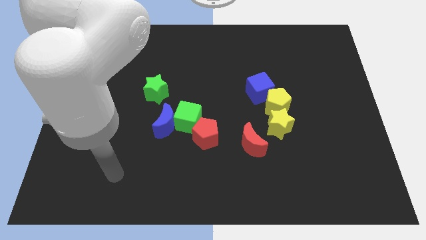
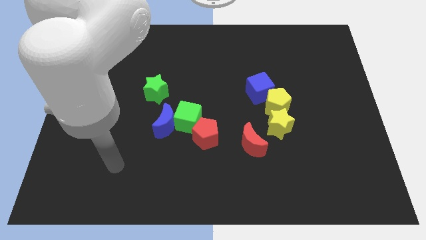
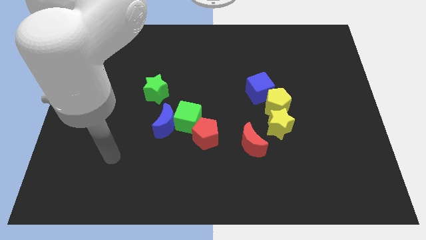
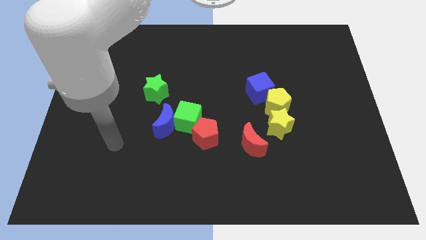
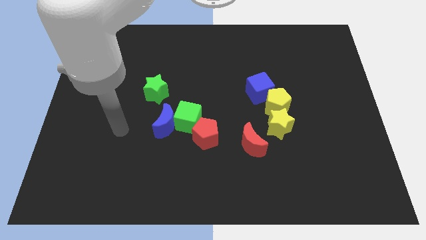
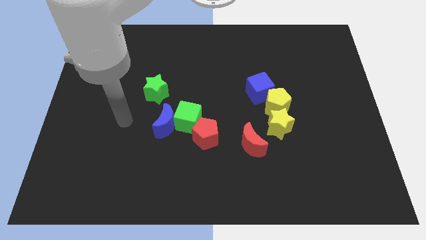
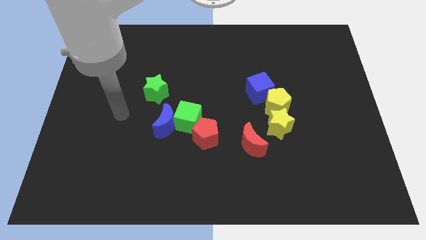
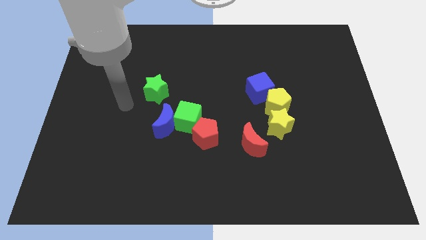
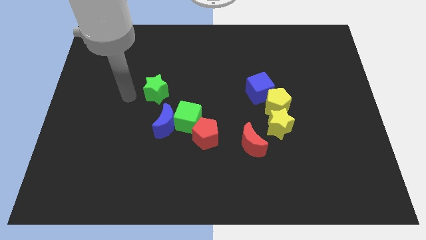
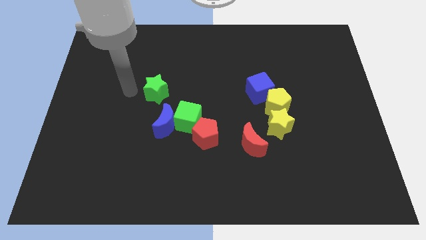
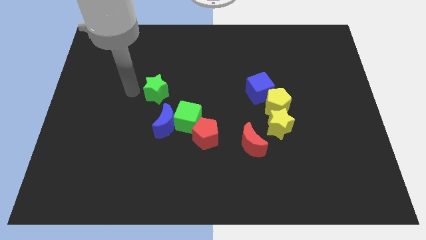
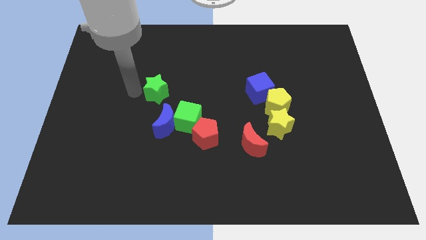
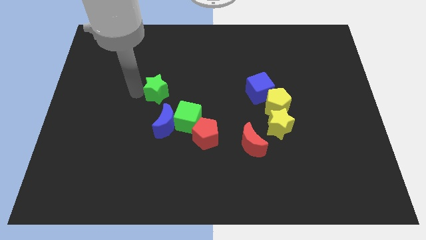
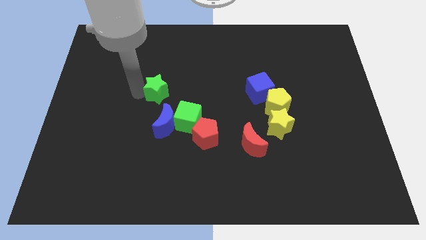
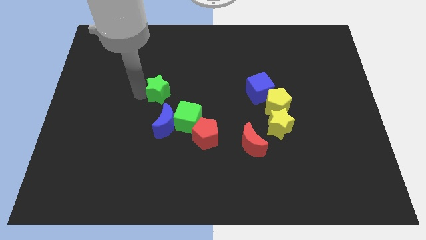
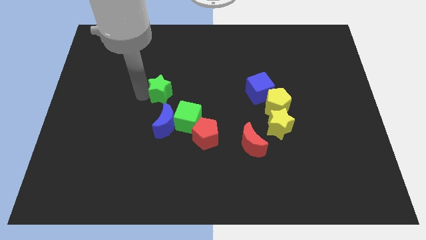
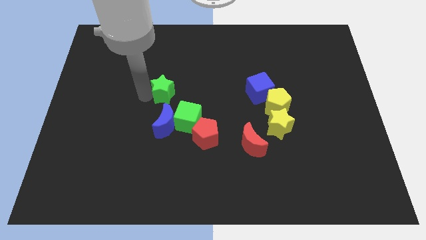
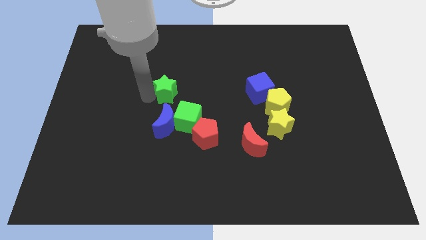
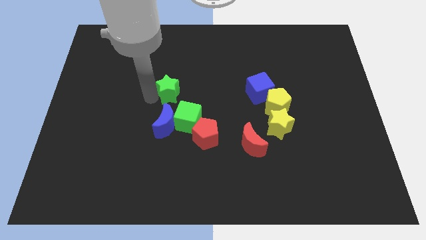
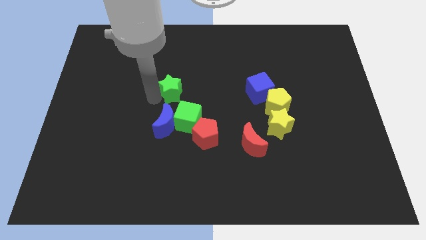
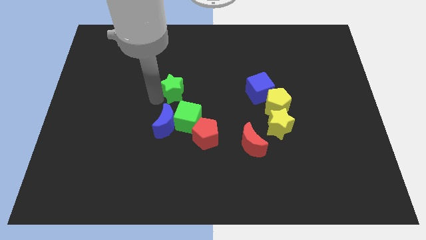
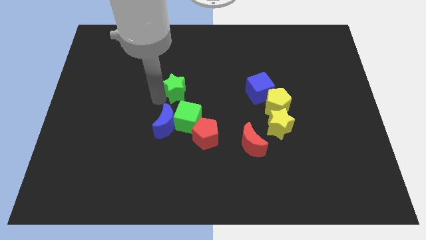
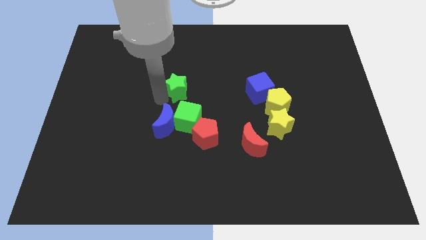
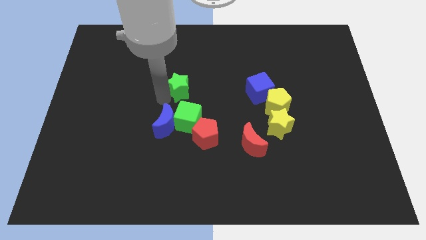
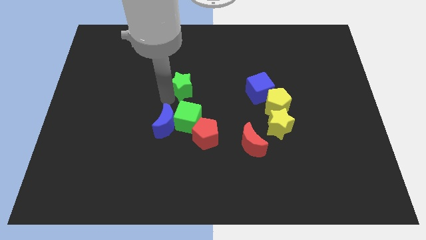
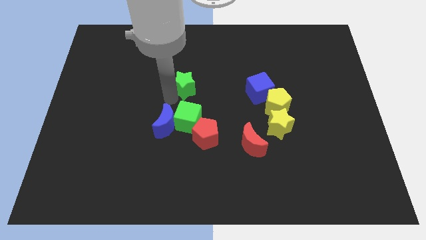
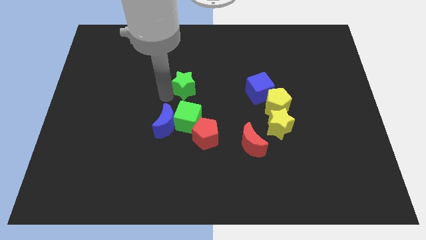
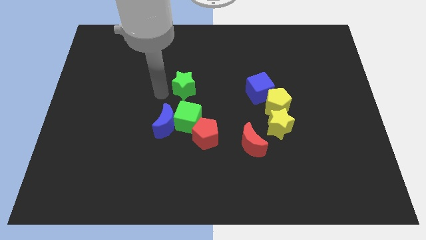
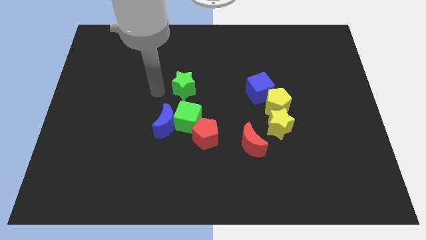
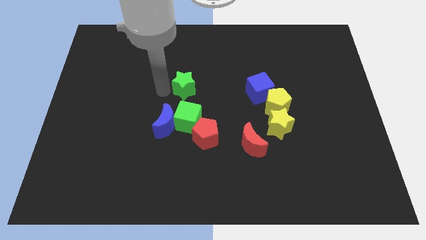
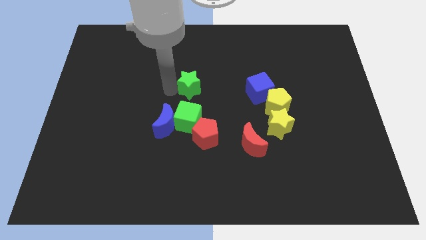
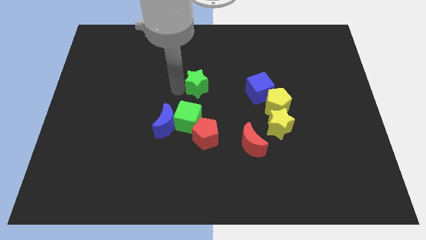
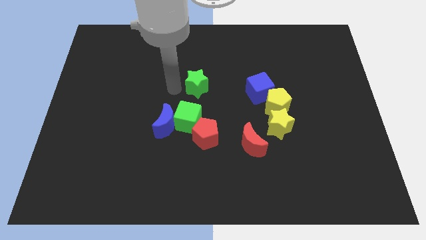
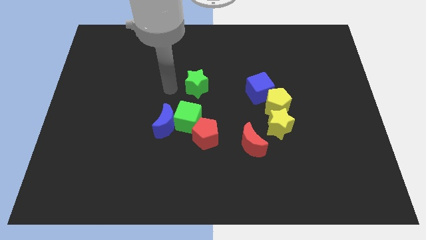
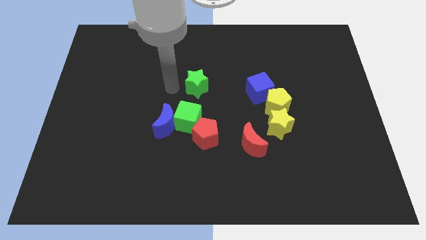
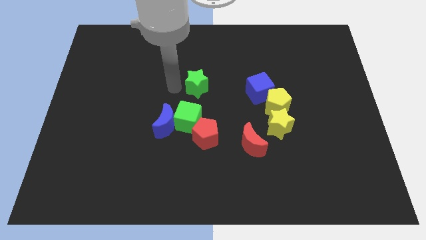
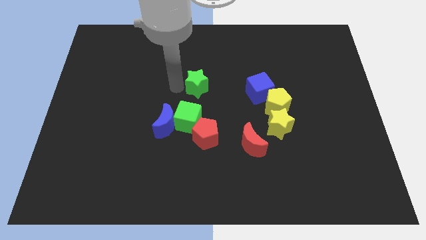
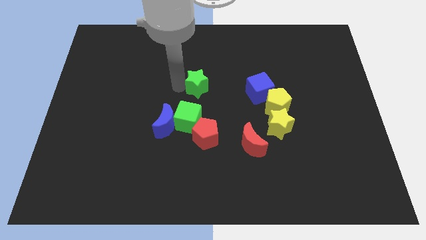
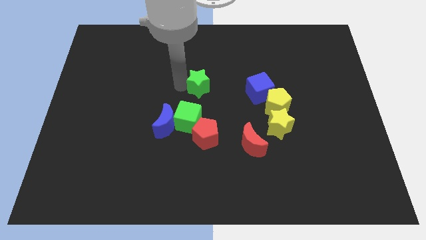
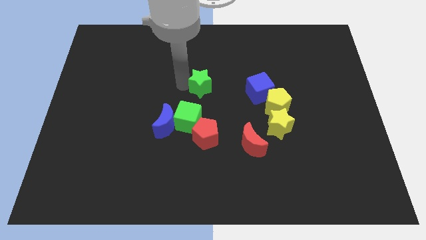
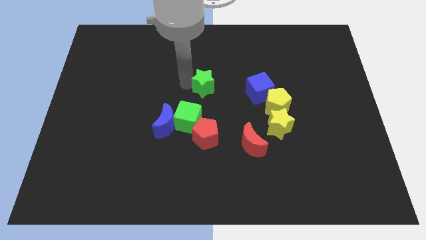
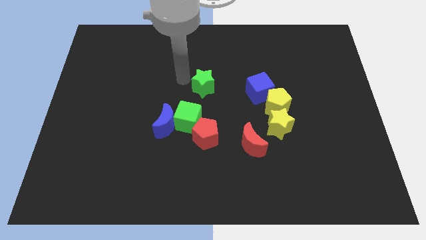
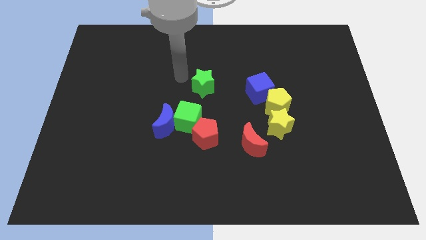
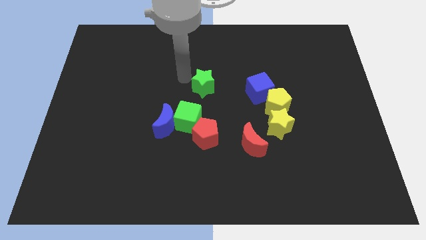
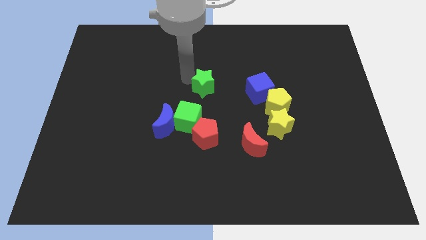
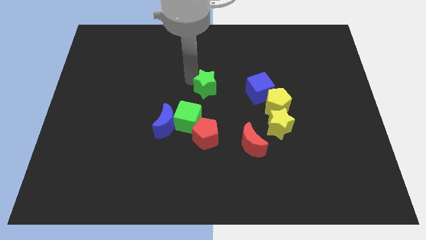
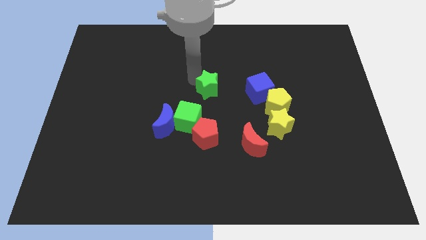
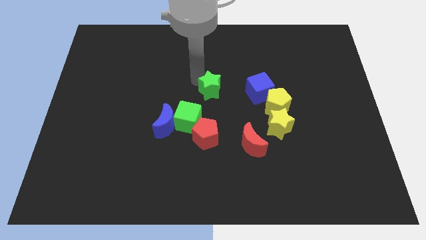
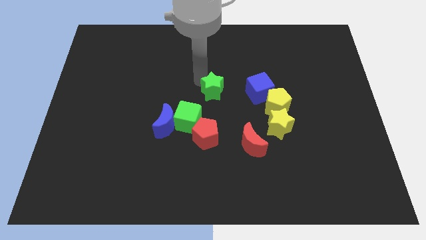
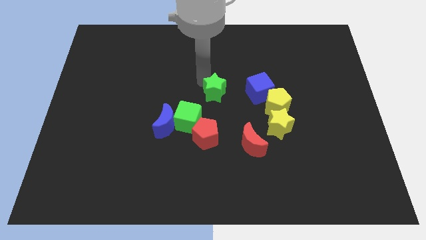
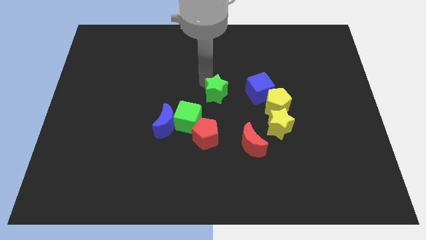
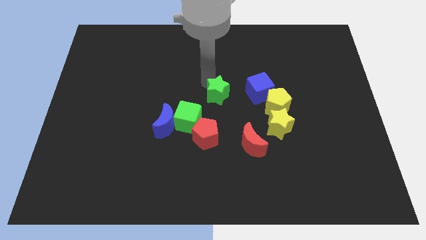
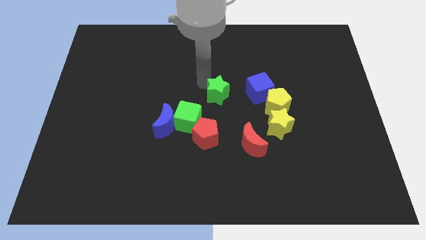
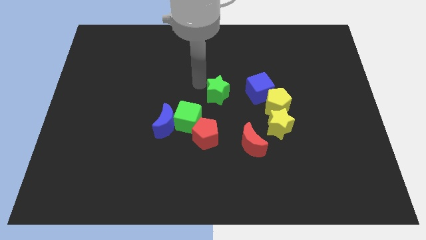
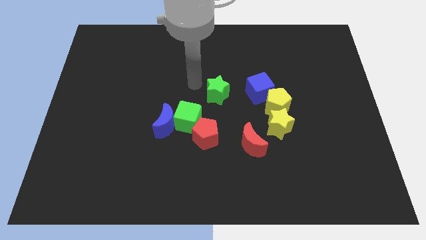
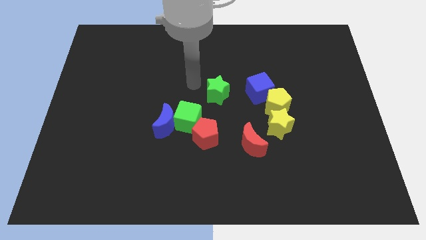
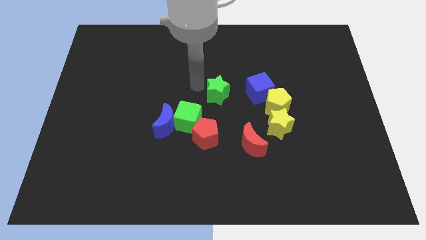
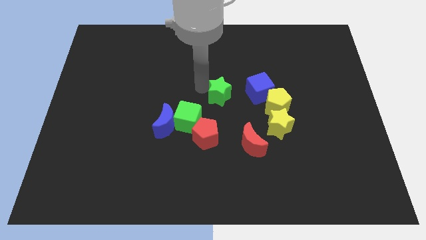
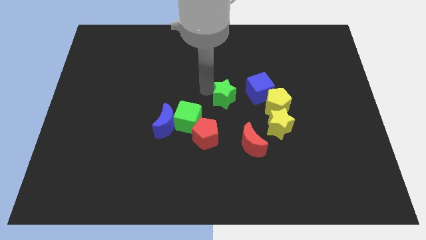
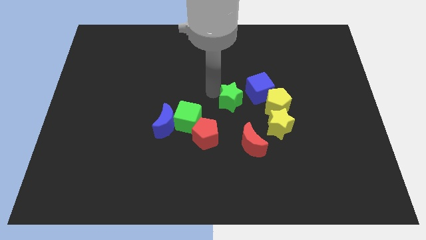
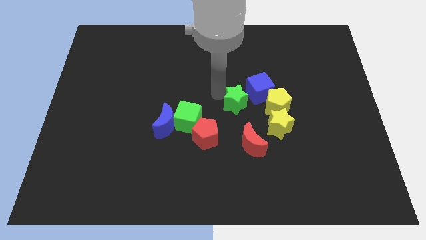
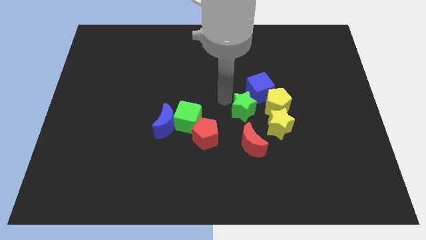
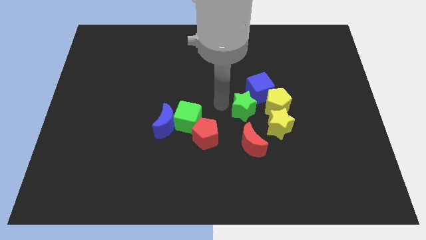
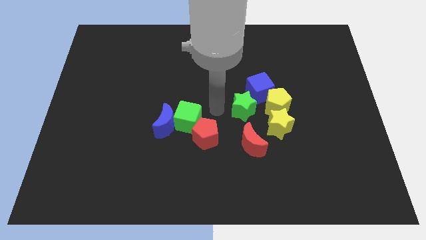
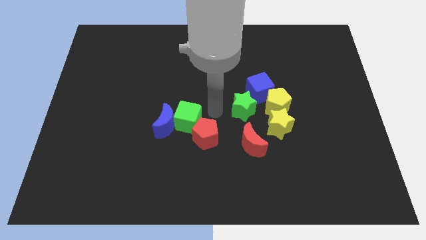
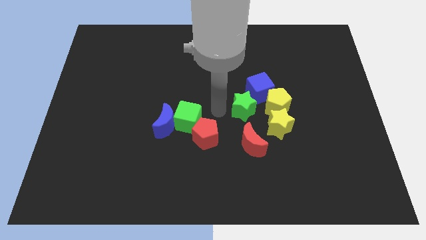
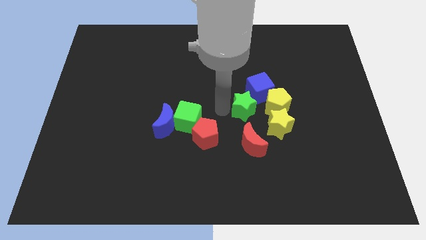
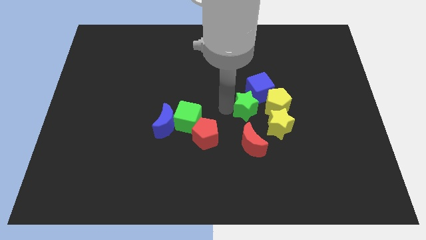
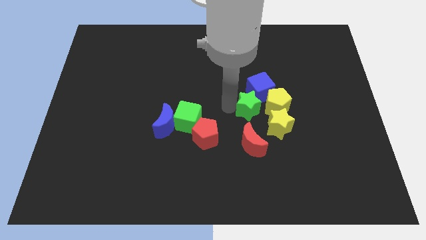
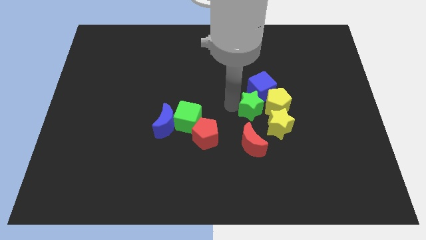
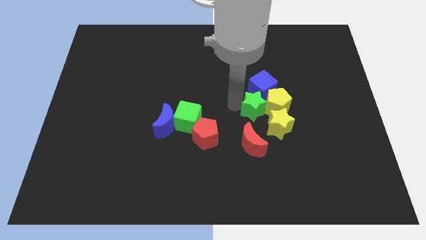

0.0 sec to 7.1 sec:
slide the green star towards the yellow pentagon

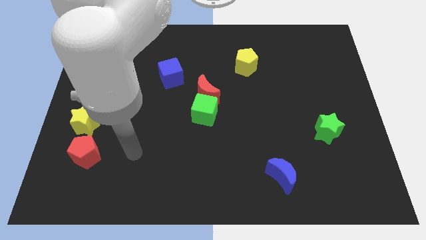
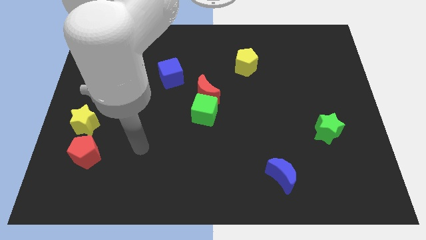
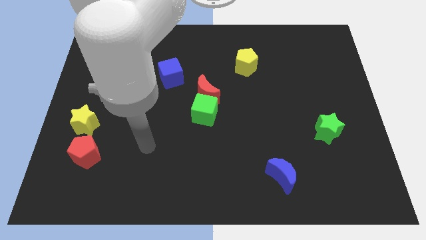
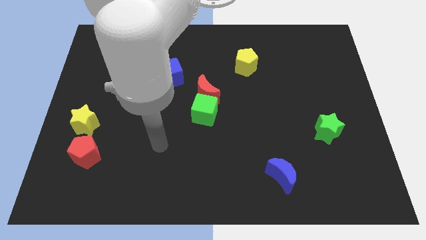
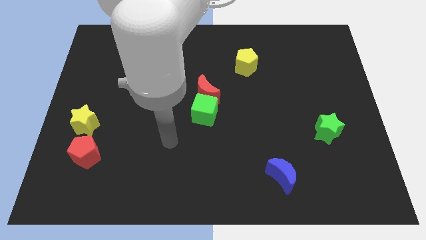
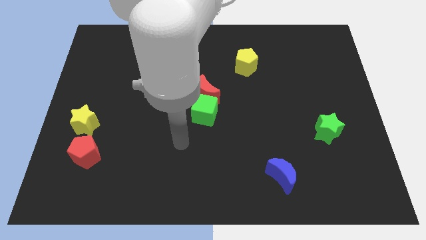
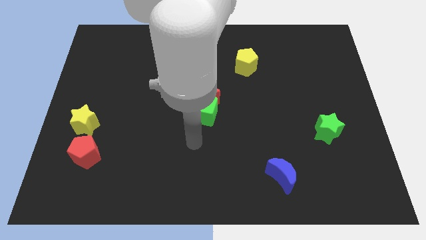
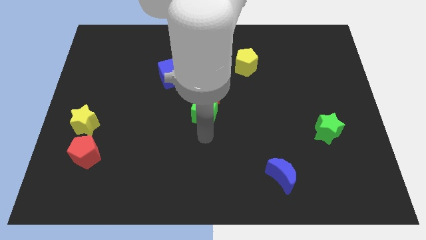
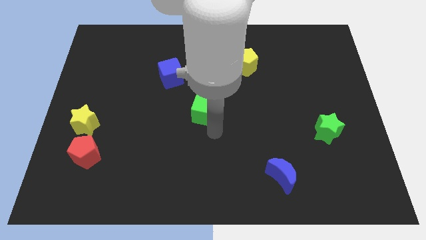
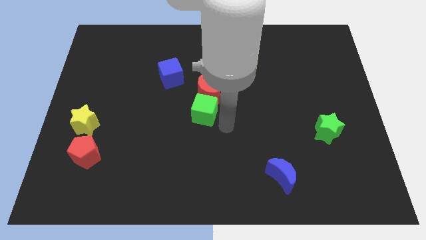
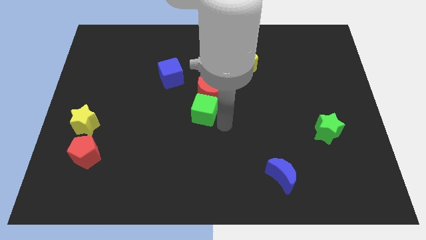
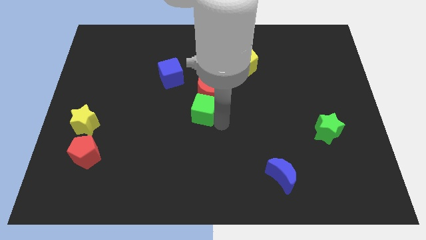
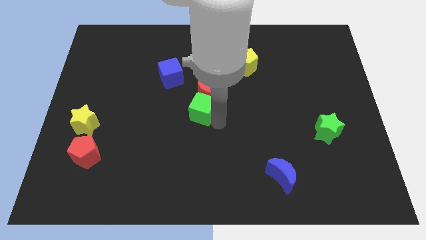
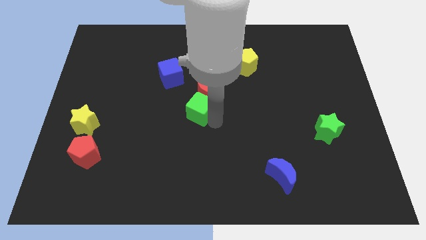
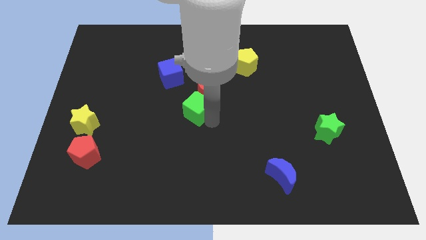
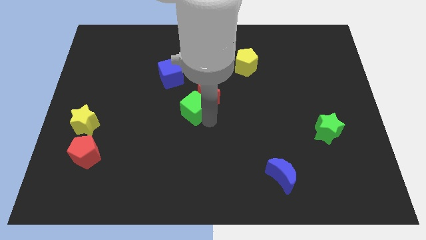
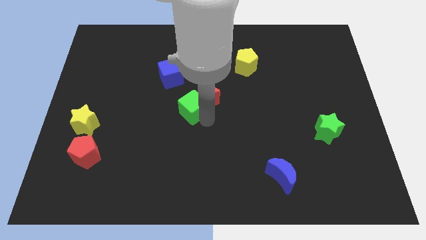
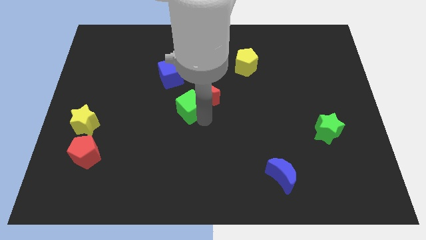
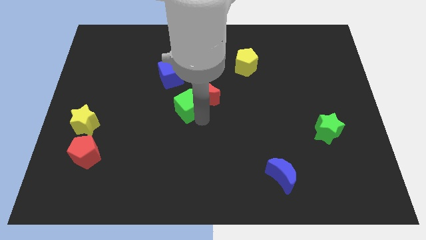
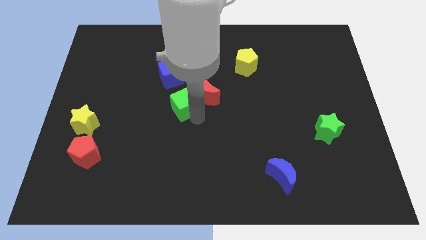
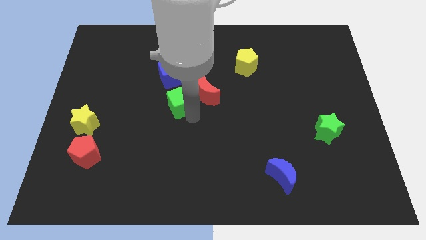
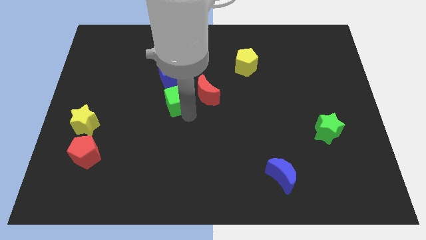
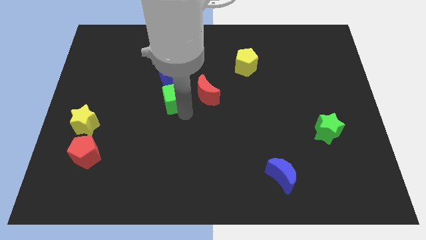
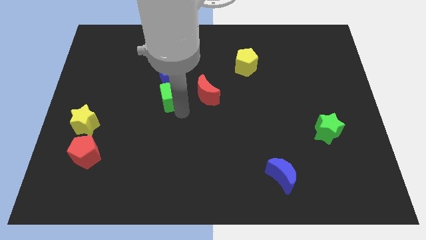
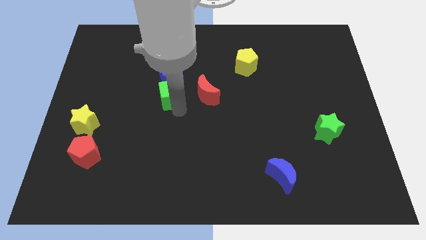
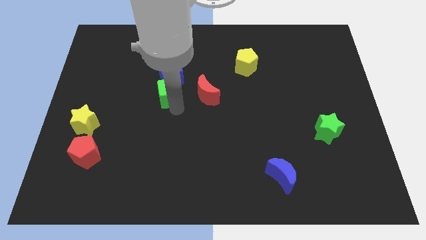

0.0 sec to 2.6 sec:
move the green cube next to the blue cube
